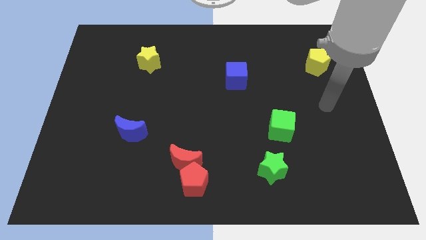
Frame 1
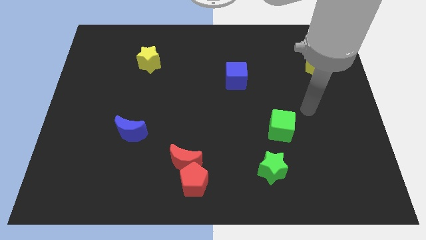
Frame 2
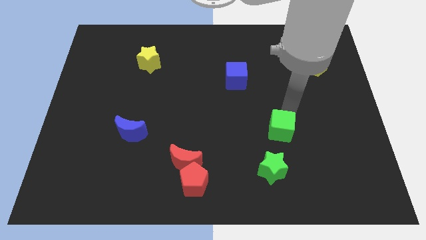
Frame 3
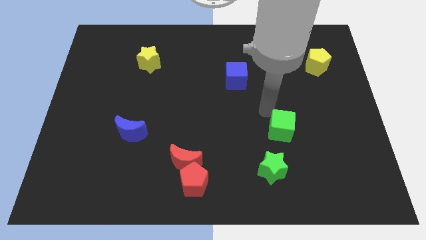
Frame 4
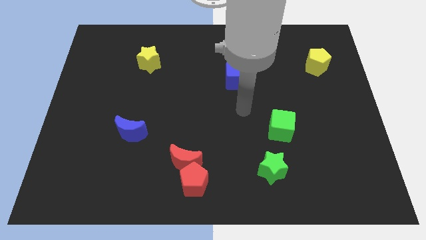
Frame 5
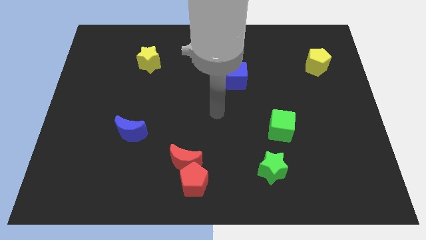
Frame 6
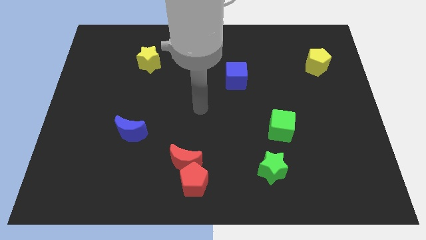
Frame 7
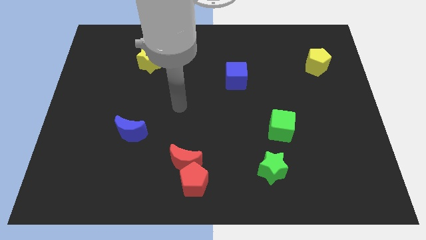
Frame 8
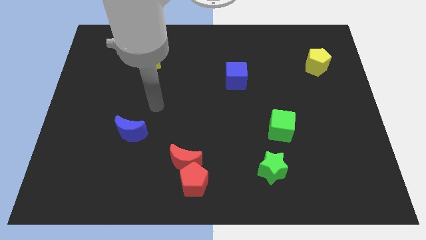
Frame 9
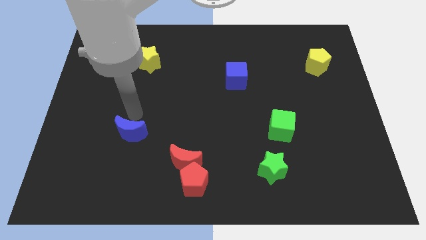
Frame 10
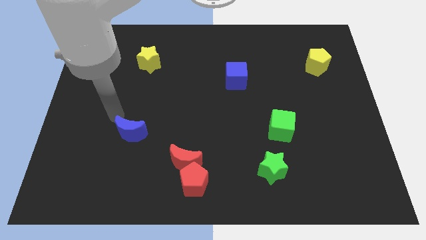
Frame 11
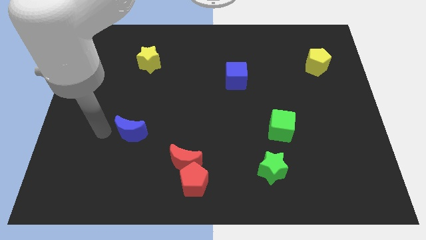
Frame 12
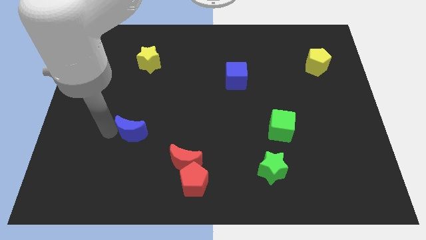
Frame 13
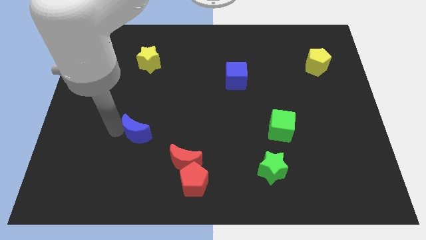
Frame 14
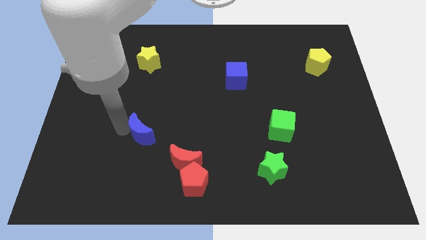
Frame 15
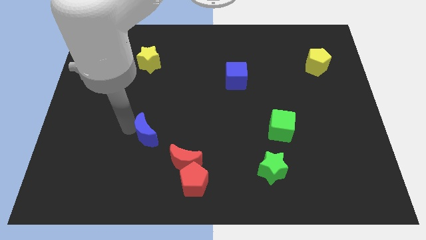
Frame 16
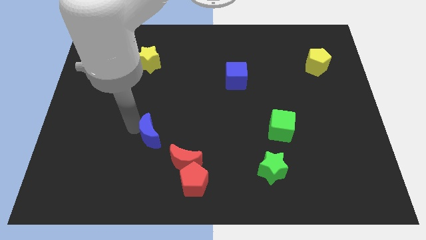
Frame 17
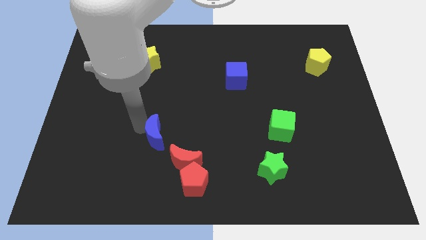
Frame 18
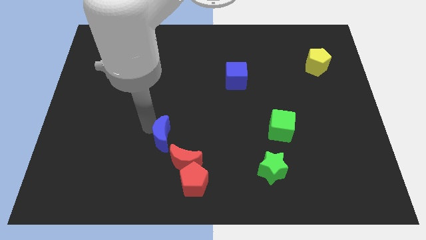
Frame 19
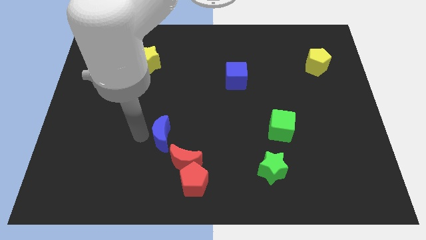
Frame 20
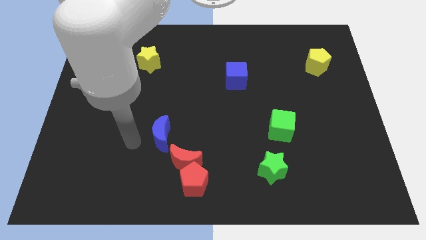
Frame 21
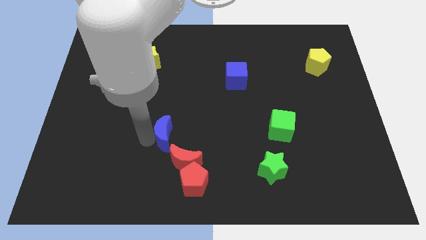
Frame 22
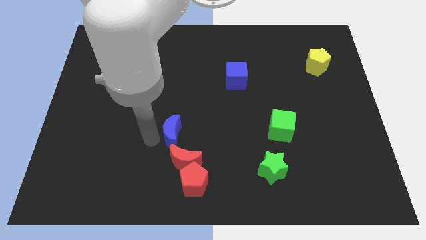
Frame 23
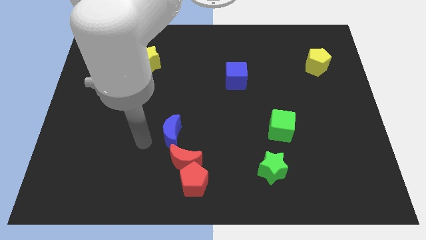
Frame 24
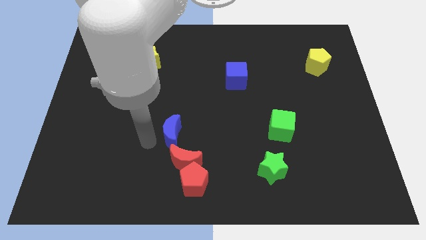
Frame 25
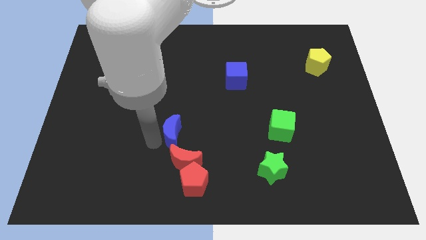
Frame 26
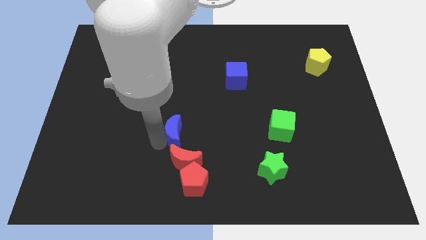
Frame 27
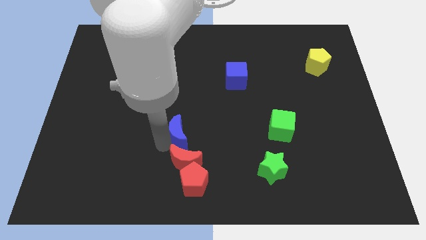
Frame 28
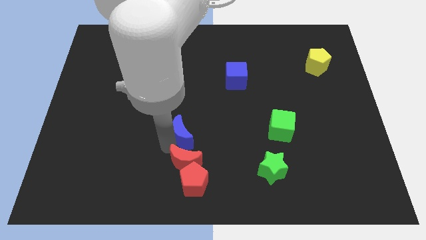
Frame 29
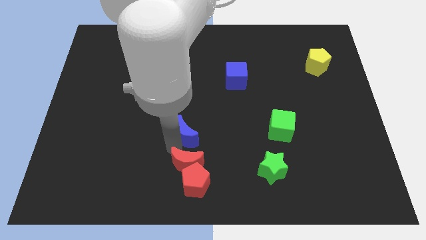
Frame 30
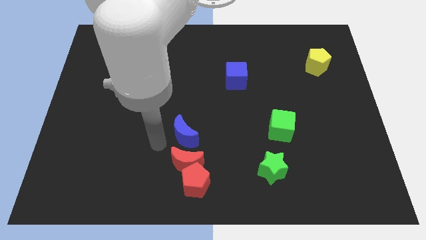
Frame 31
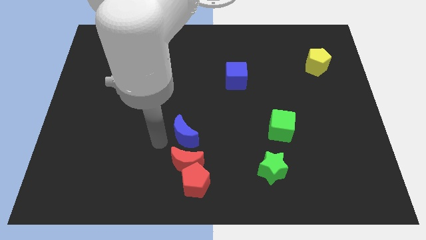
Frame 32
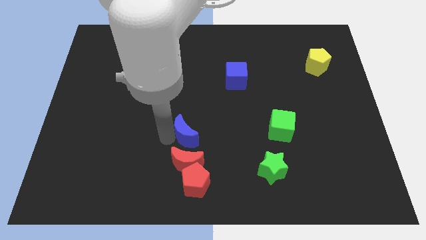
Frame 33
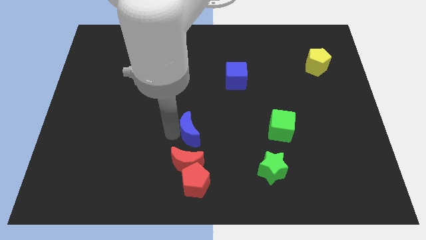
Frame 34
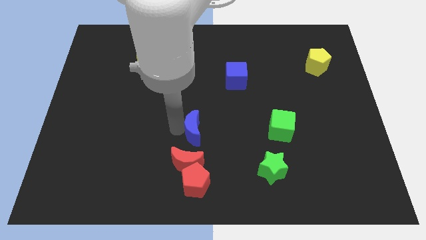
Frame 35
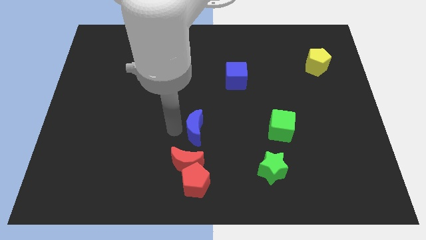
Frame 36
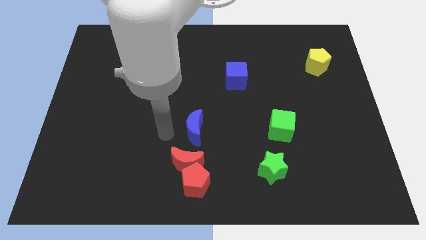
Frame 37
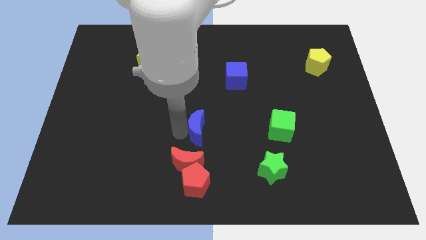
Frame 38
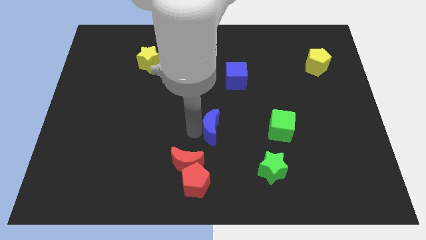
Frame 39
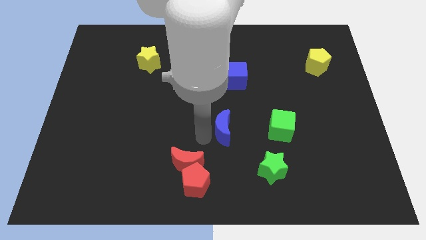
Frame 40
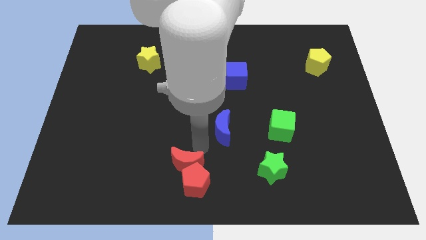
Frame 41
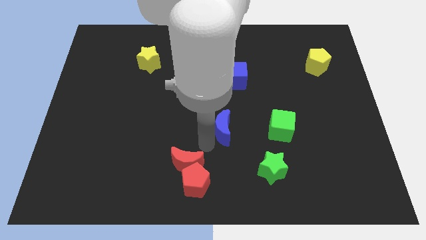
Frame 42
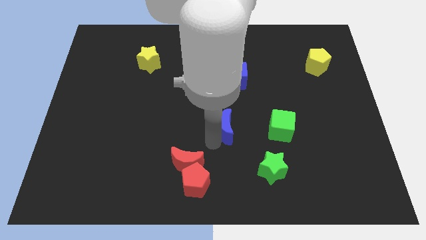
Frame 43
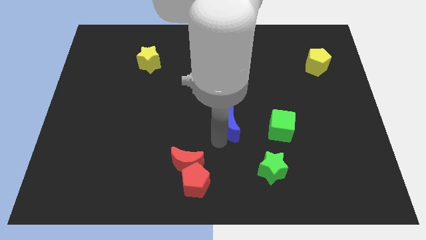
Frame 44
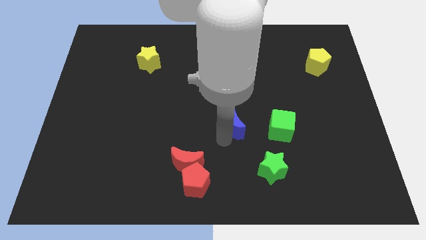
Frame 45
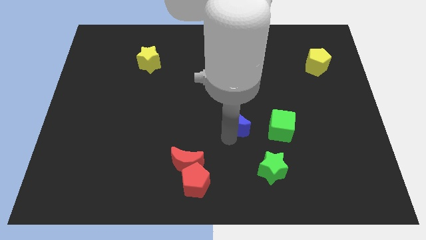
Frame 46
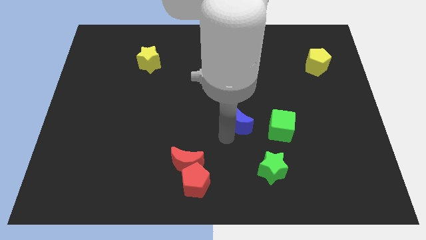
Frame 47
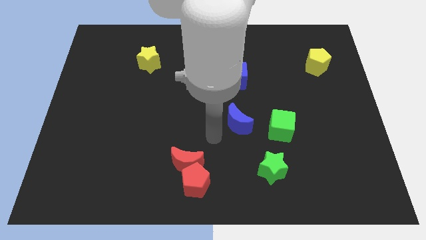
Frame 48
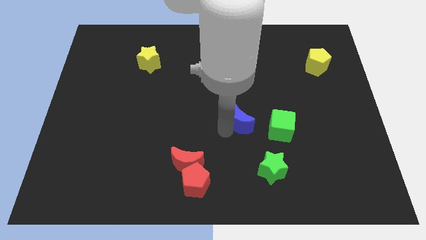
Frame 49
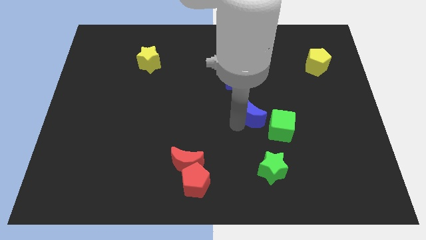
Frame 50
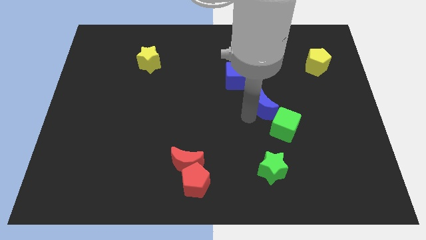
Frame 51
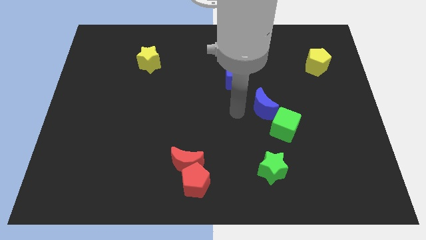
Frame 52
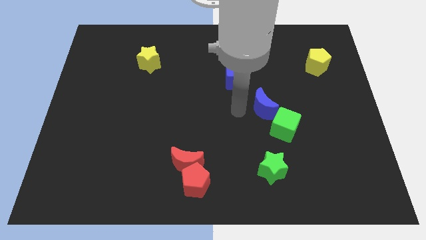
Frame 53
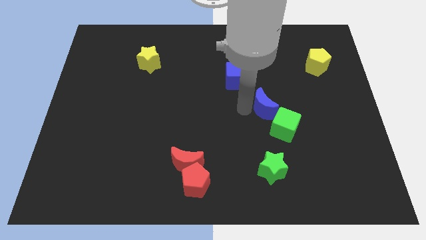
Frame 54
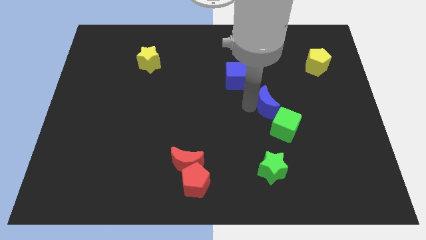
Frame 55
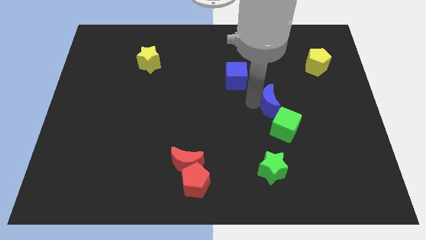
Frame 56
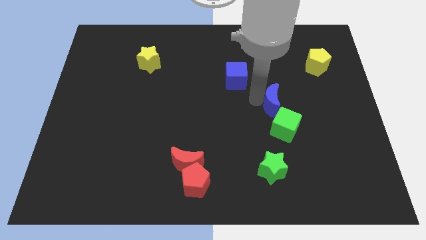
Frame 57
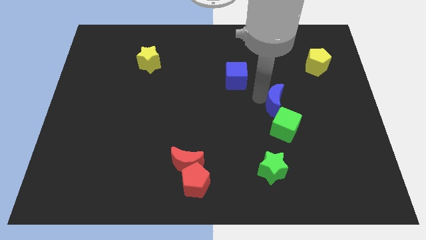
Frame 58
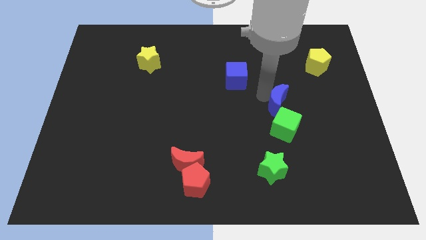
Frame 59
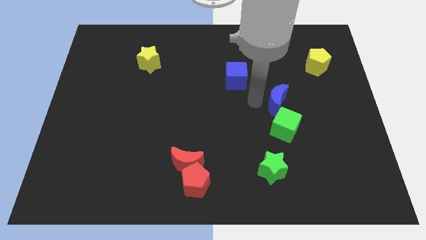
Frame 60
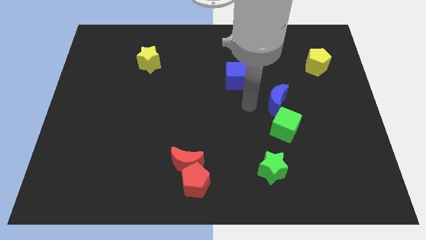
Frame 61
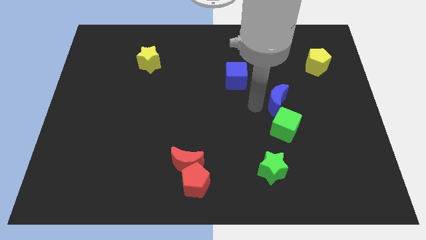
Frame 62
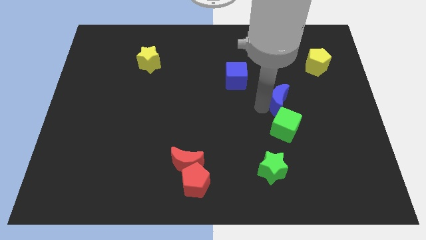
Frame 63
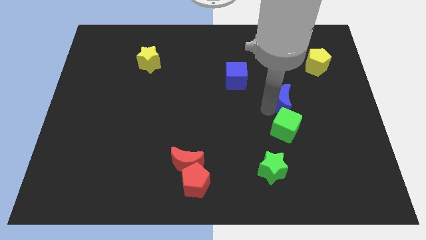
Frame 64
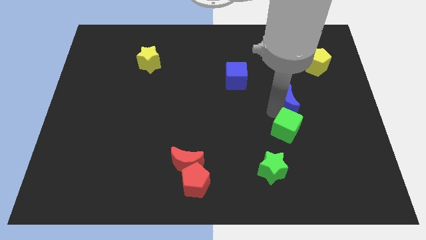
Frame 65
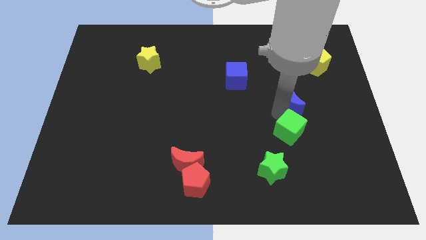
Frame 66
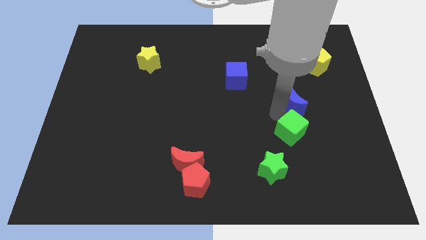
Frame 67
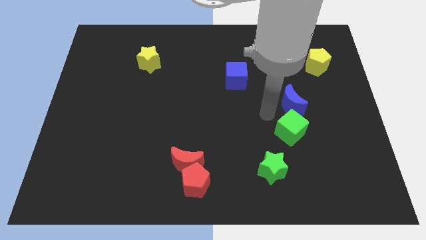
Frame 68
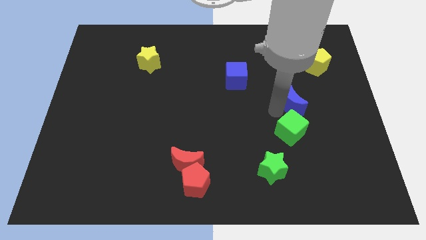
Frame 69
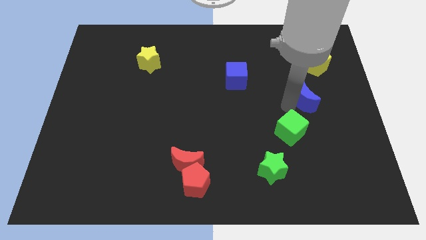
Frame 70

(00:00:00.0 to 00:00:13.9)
put the blue moon to the bottom side of the yellow pentagon

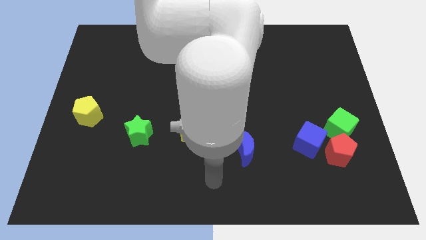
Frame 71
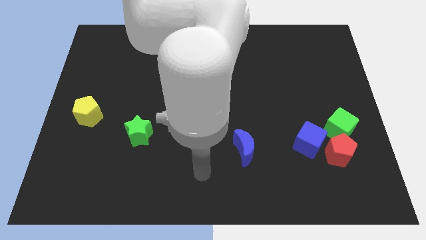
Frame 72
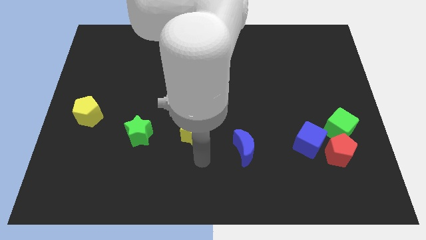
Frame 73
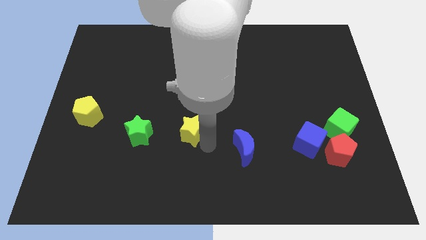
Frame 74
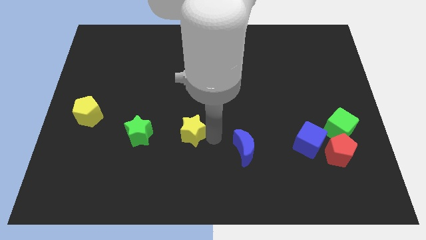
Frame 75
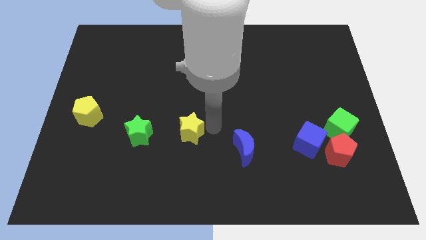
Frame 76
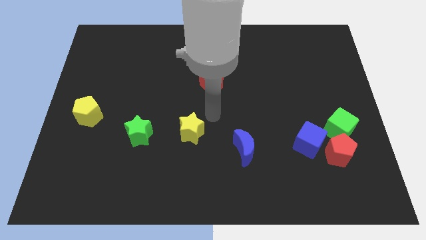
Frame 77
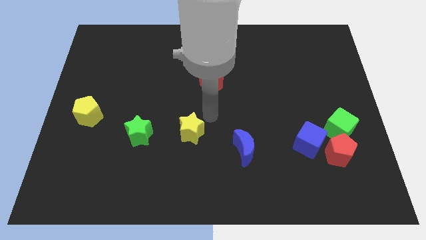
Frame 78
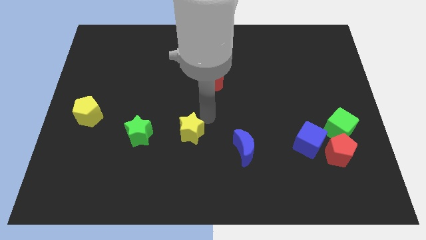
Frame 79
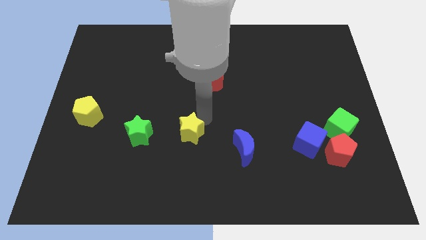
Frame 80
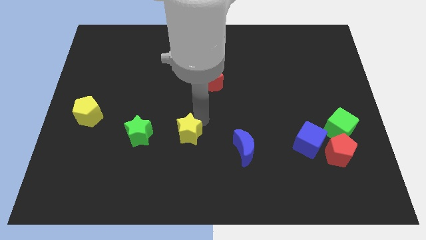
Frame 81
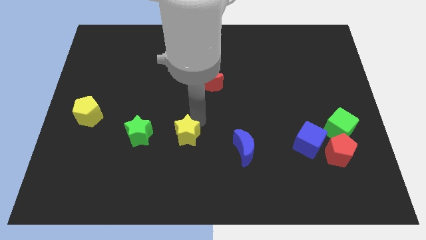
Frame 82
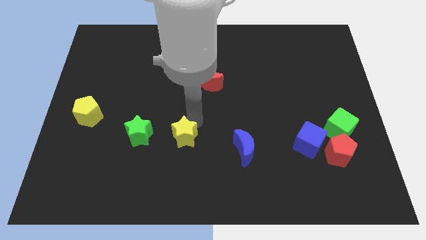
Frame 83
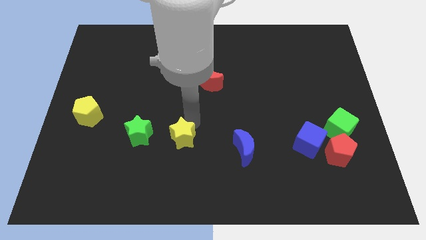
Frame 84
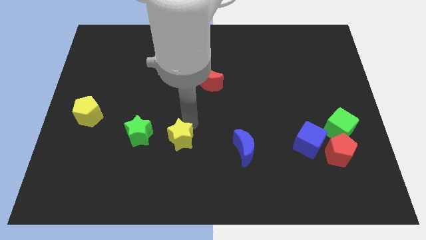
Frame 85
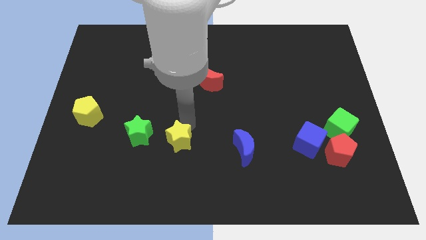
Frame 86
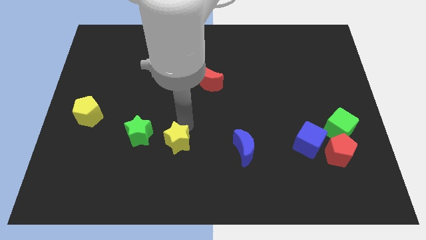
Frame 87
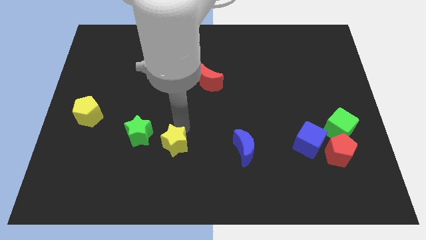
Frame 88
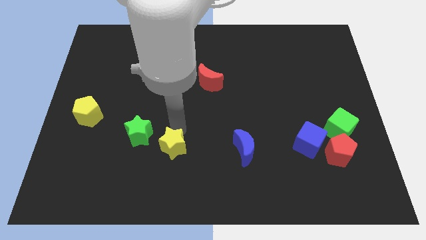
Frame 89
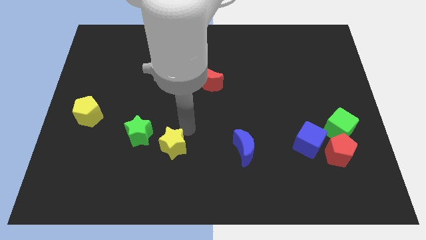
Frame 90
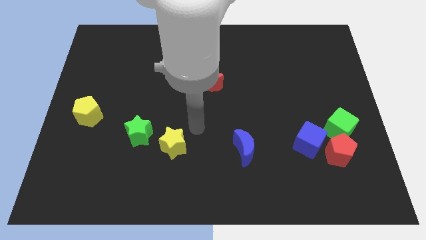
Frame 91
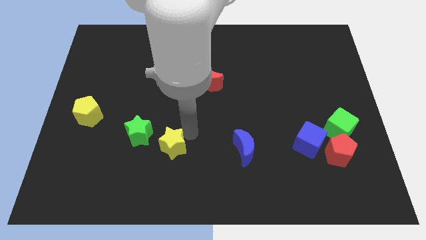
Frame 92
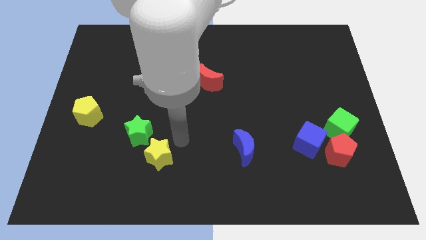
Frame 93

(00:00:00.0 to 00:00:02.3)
slide the yellow star to the bottom of the green star
